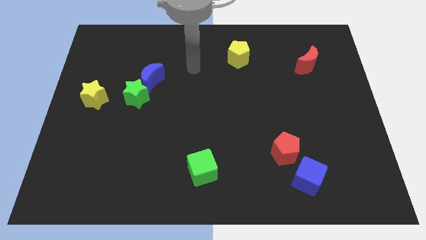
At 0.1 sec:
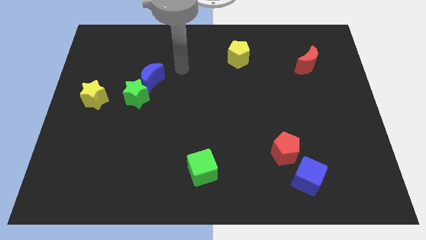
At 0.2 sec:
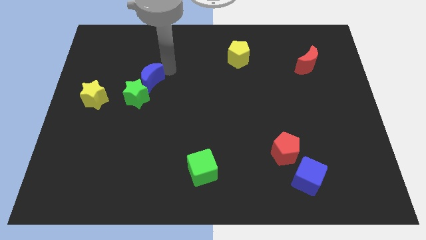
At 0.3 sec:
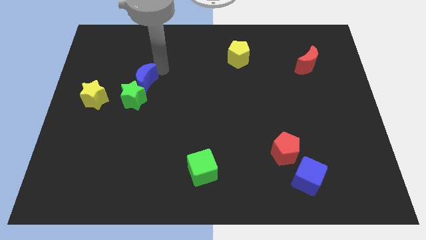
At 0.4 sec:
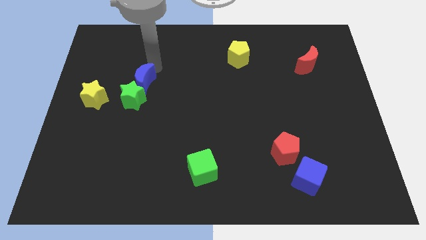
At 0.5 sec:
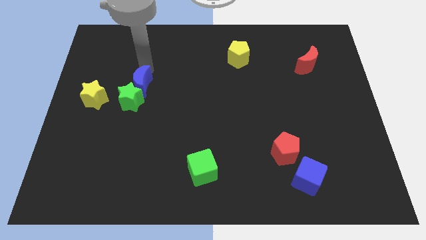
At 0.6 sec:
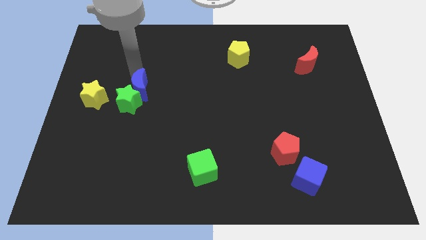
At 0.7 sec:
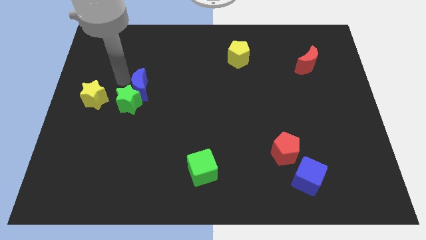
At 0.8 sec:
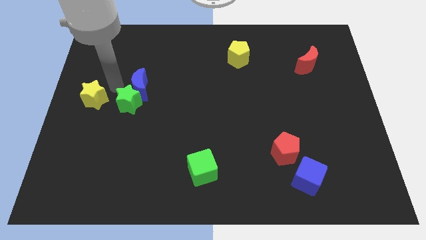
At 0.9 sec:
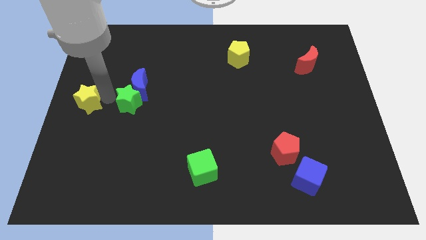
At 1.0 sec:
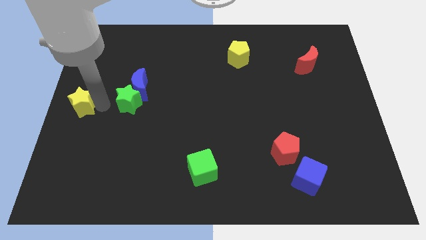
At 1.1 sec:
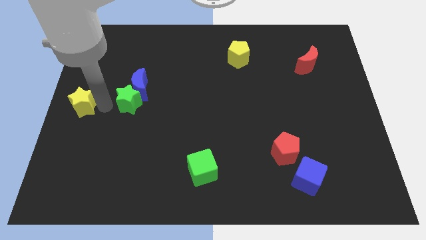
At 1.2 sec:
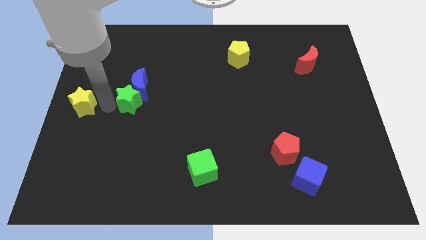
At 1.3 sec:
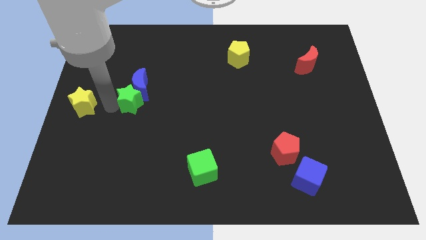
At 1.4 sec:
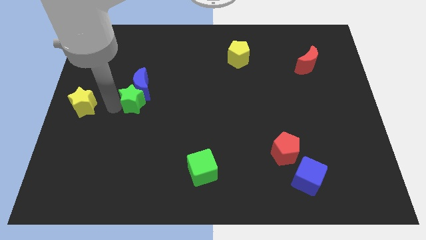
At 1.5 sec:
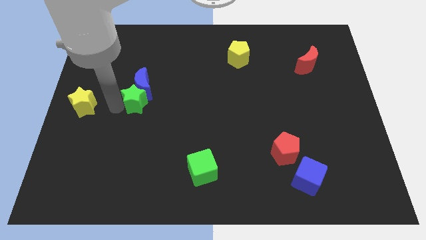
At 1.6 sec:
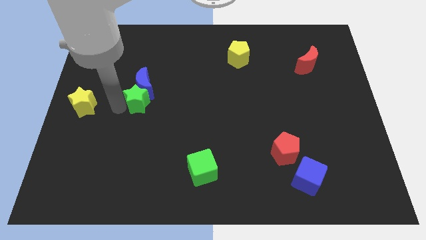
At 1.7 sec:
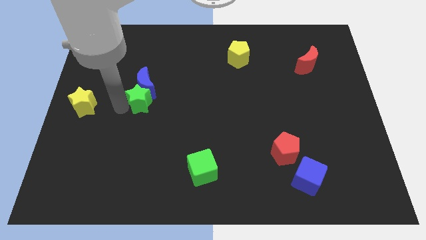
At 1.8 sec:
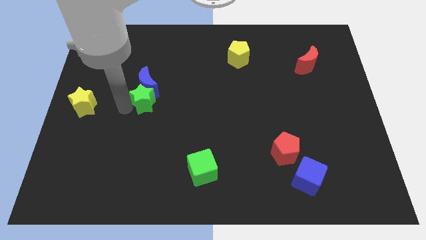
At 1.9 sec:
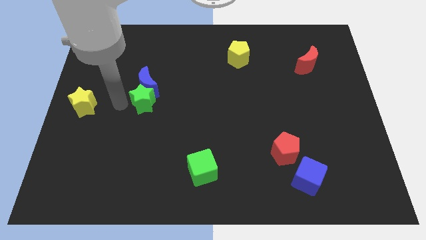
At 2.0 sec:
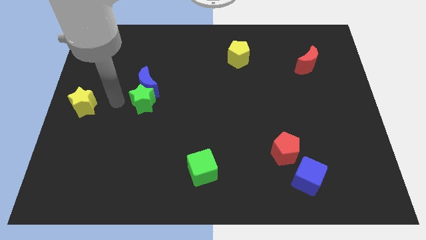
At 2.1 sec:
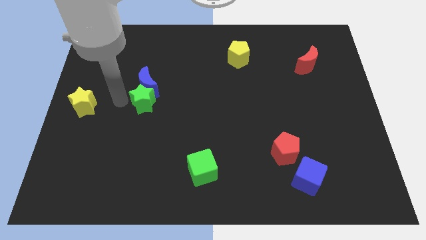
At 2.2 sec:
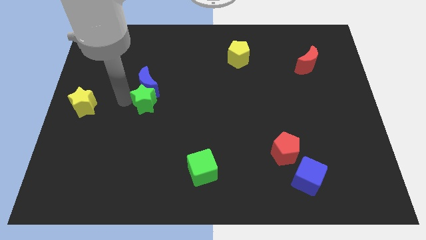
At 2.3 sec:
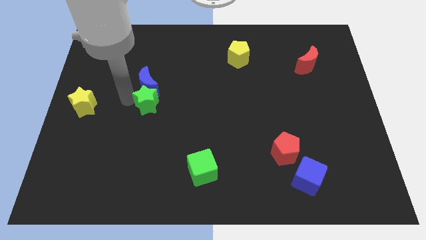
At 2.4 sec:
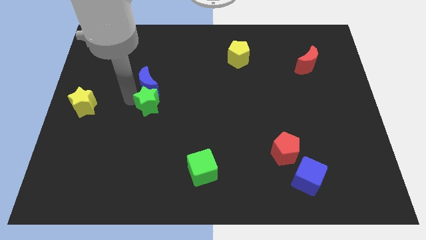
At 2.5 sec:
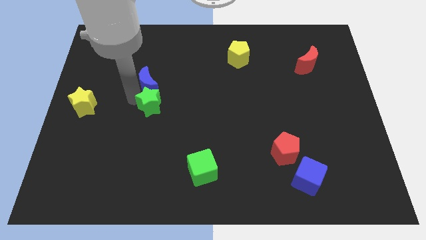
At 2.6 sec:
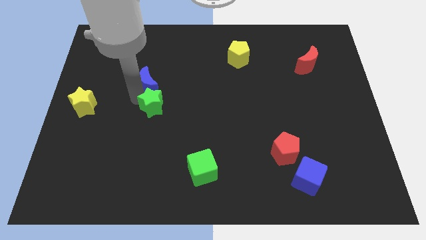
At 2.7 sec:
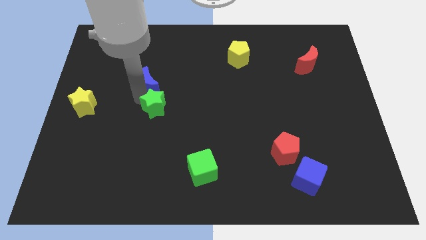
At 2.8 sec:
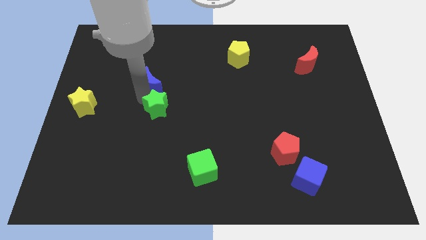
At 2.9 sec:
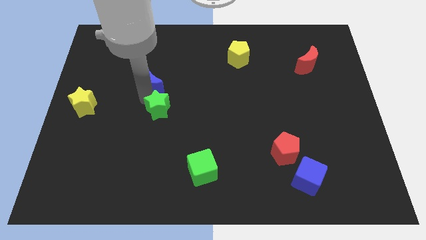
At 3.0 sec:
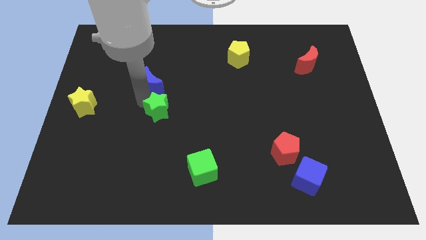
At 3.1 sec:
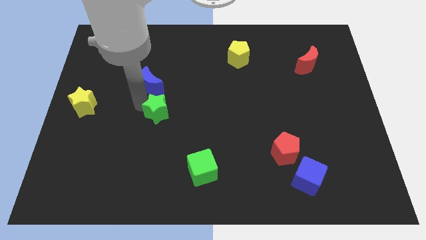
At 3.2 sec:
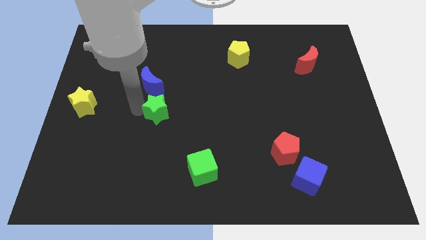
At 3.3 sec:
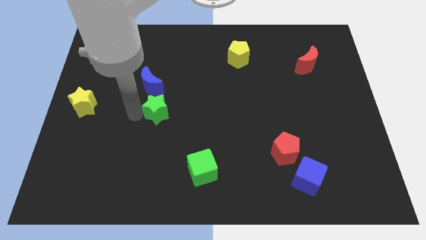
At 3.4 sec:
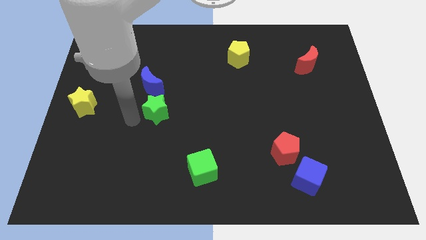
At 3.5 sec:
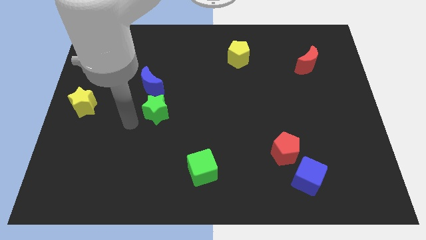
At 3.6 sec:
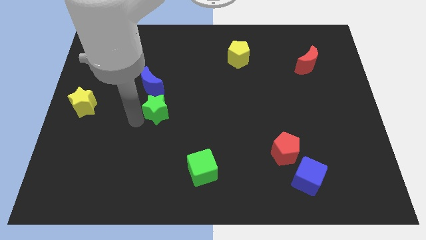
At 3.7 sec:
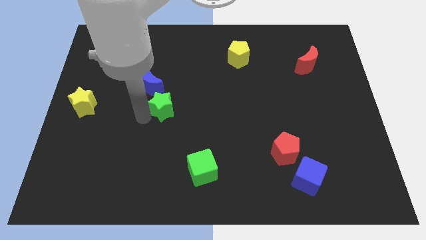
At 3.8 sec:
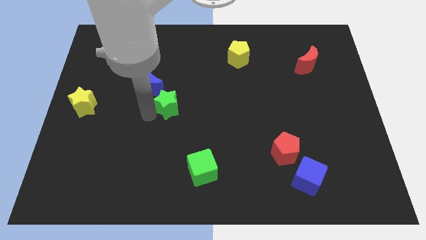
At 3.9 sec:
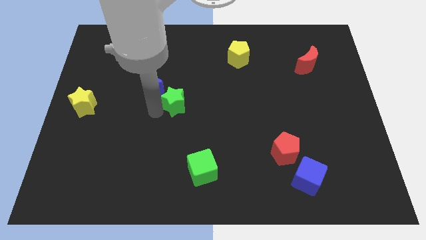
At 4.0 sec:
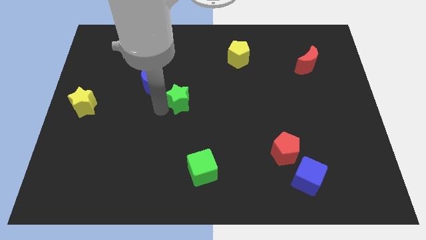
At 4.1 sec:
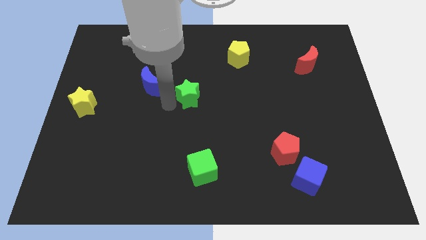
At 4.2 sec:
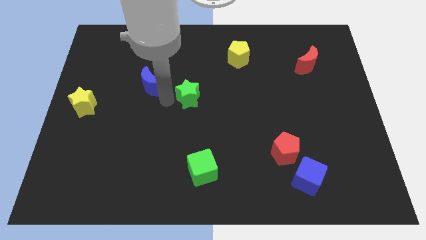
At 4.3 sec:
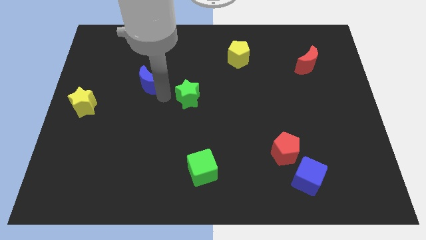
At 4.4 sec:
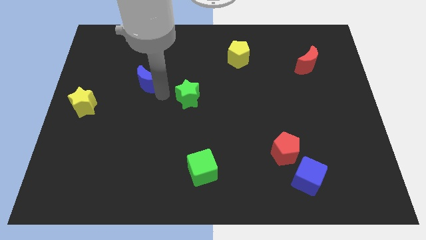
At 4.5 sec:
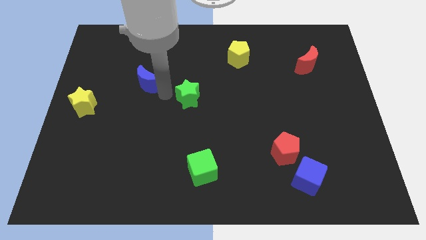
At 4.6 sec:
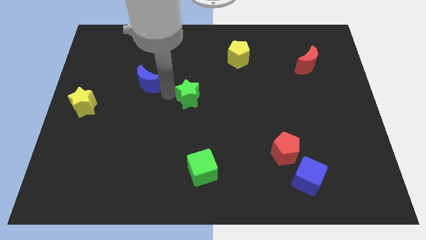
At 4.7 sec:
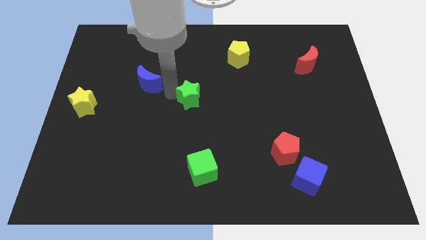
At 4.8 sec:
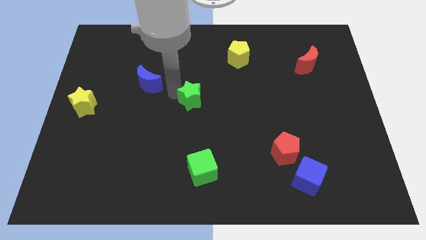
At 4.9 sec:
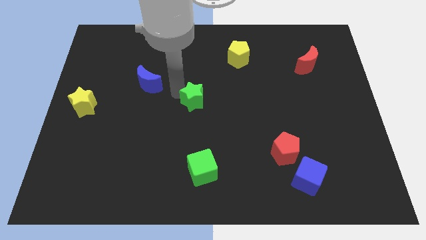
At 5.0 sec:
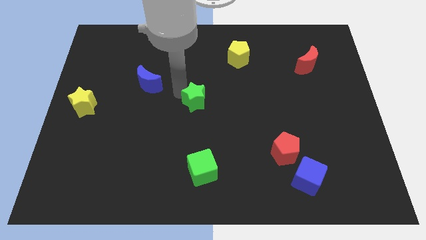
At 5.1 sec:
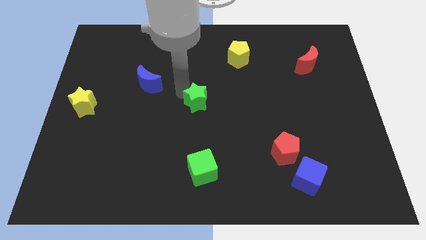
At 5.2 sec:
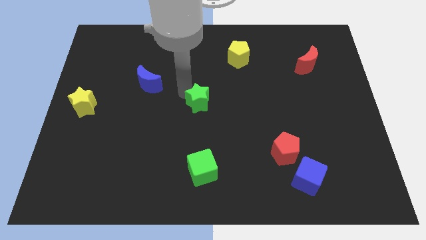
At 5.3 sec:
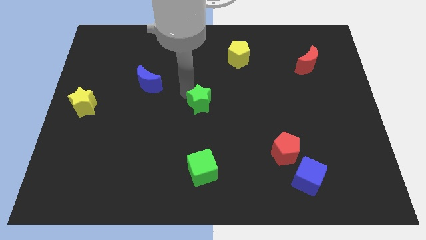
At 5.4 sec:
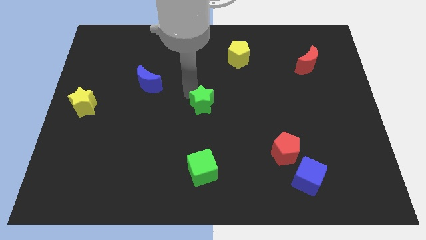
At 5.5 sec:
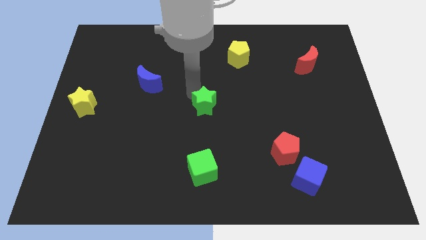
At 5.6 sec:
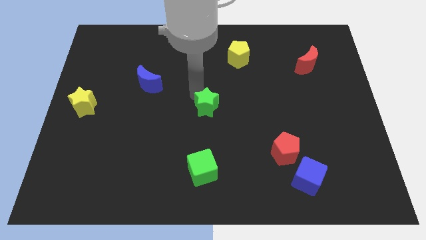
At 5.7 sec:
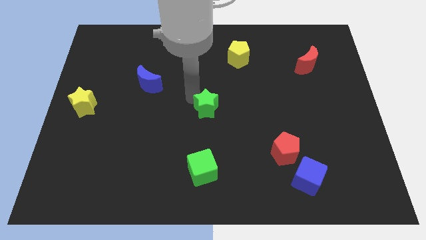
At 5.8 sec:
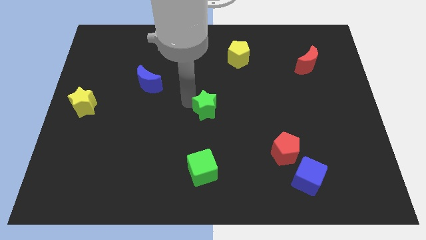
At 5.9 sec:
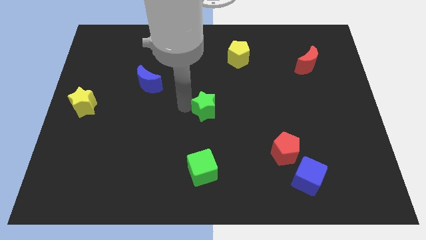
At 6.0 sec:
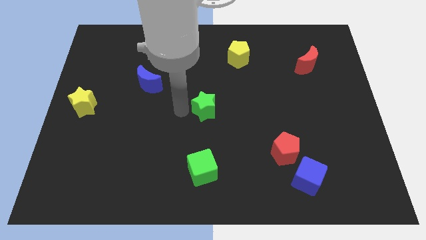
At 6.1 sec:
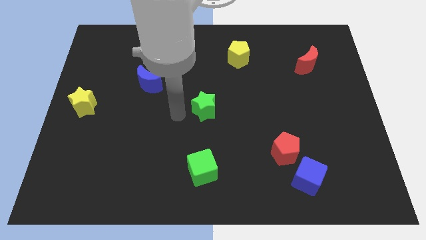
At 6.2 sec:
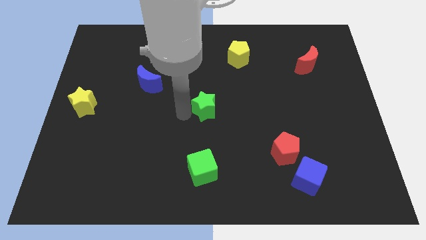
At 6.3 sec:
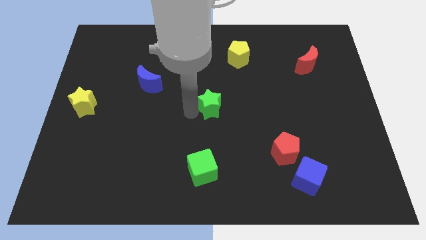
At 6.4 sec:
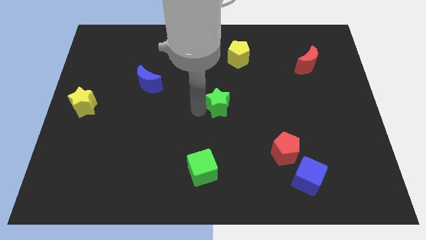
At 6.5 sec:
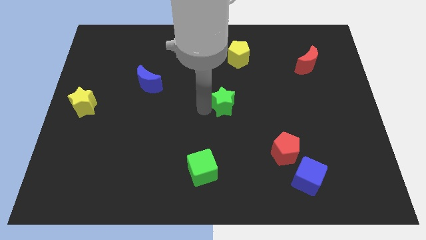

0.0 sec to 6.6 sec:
slide the green star right

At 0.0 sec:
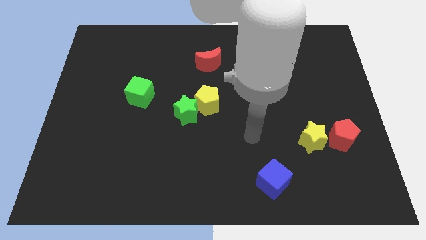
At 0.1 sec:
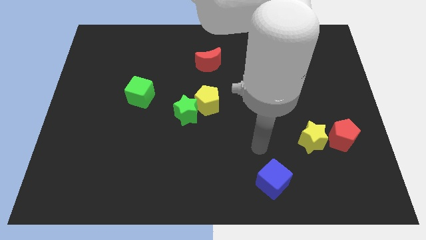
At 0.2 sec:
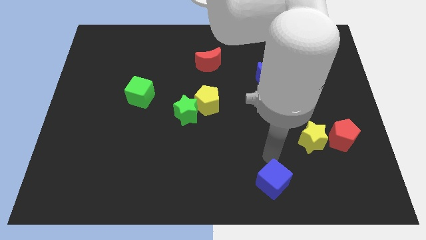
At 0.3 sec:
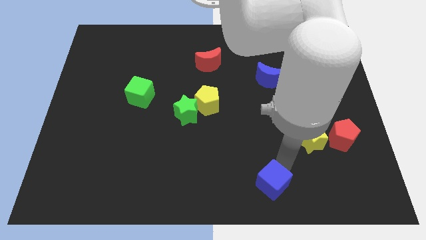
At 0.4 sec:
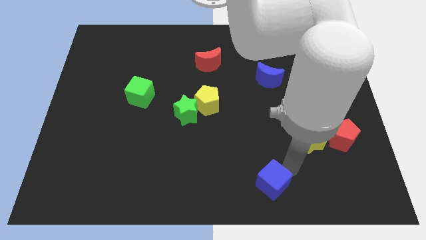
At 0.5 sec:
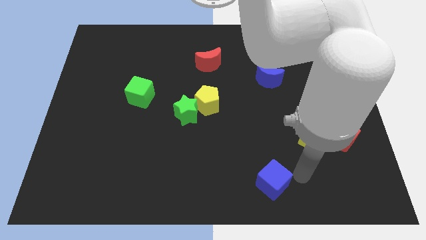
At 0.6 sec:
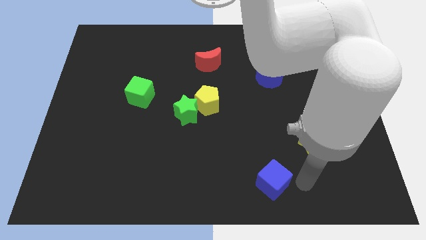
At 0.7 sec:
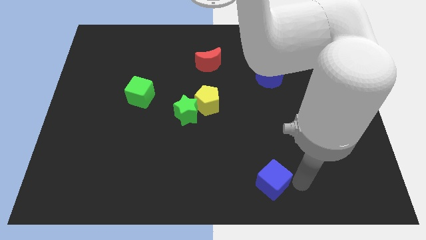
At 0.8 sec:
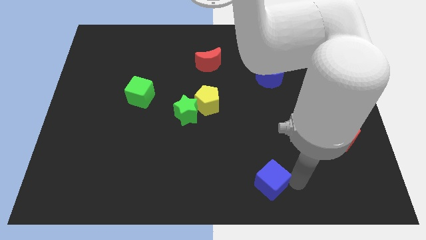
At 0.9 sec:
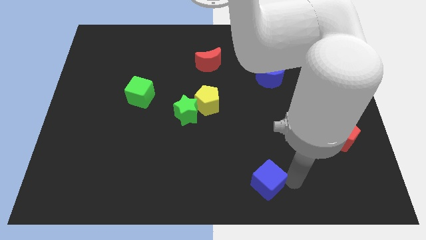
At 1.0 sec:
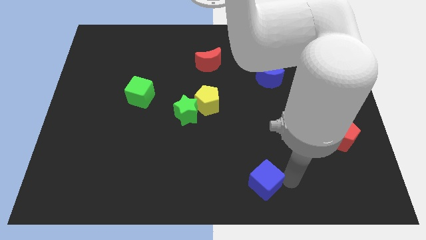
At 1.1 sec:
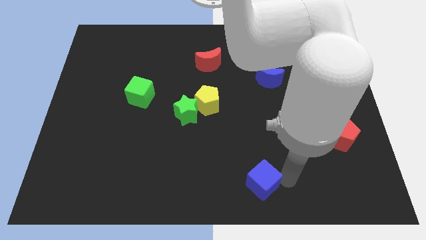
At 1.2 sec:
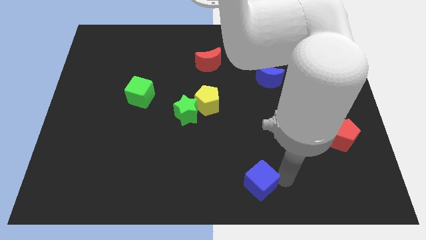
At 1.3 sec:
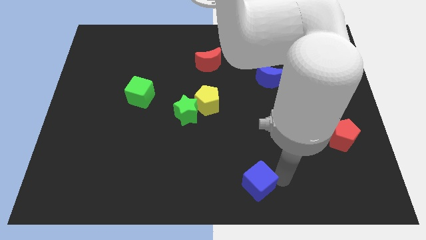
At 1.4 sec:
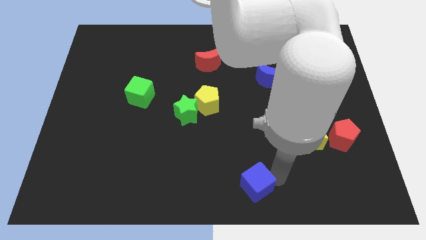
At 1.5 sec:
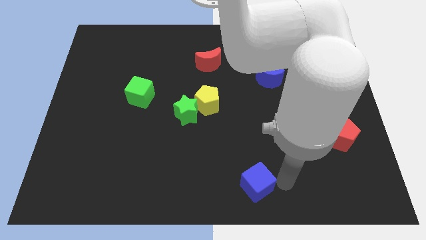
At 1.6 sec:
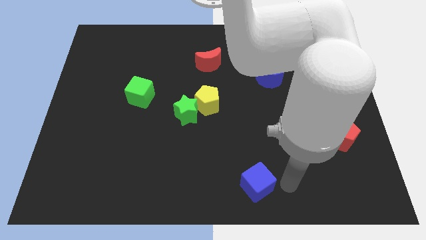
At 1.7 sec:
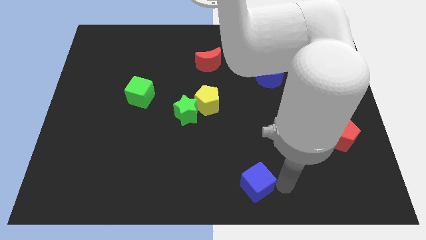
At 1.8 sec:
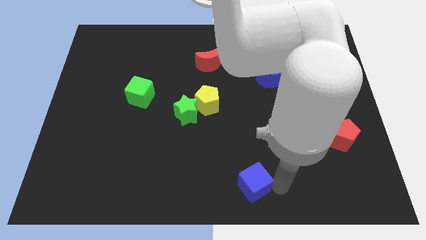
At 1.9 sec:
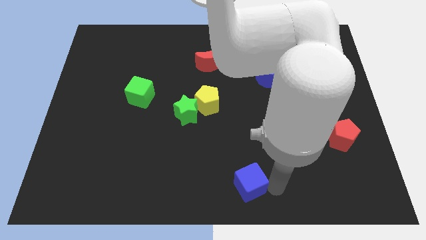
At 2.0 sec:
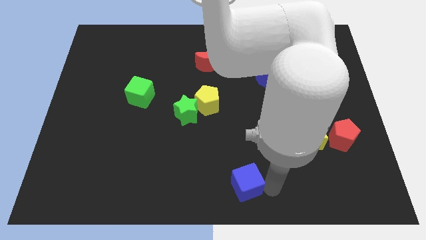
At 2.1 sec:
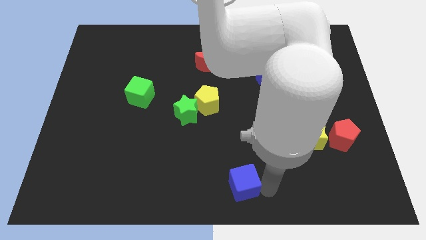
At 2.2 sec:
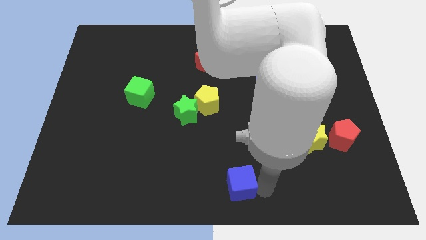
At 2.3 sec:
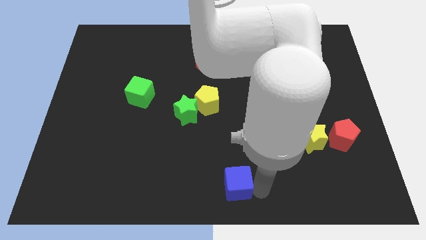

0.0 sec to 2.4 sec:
move the blue cube to the left a bit
